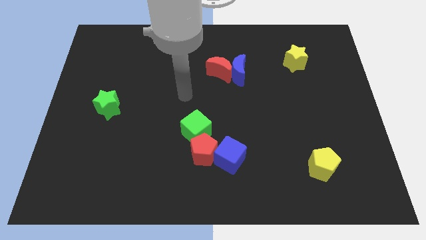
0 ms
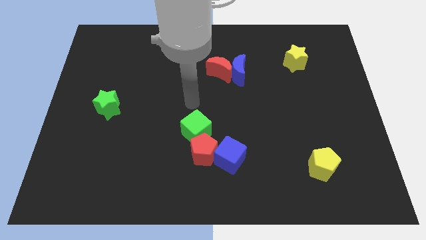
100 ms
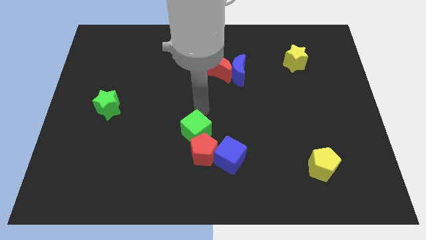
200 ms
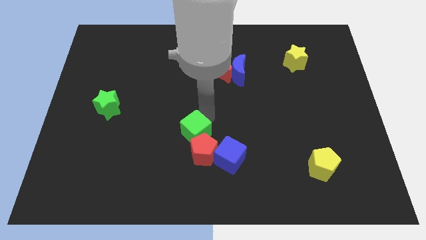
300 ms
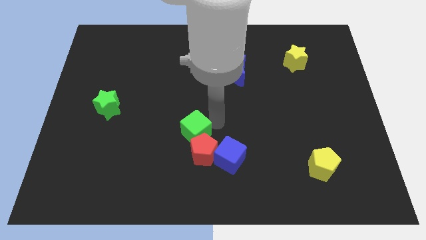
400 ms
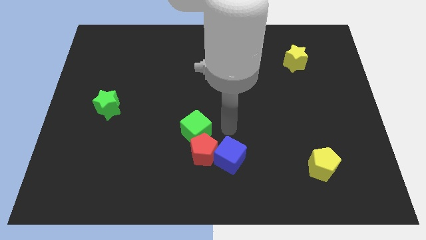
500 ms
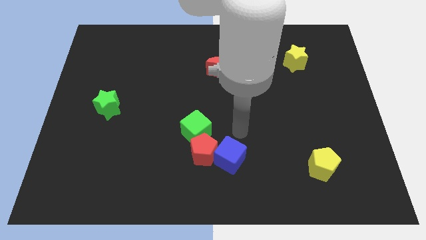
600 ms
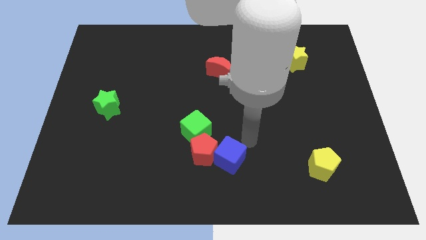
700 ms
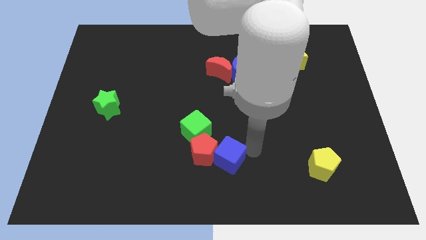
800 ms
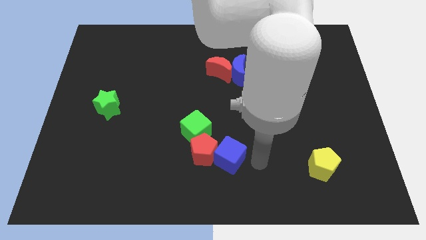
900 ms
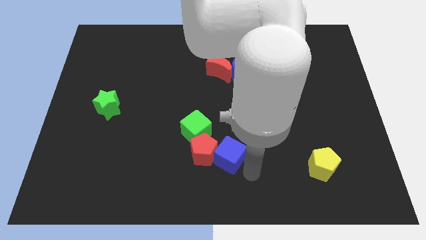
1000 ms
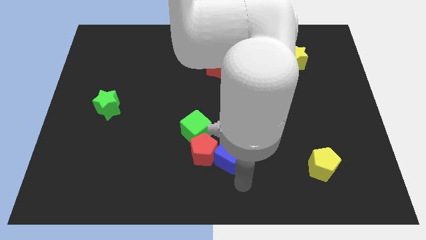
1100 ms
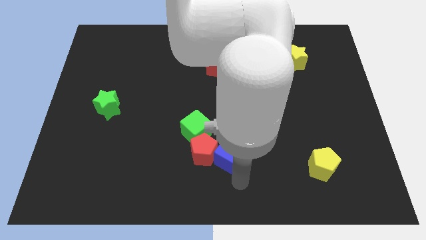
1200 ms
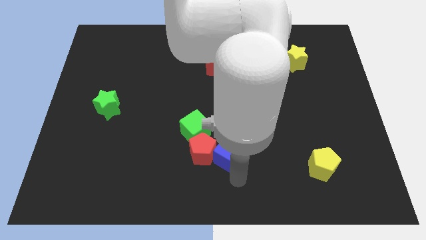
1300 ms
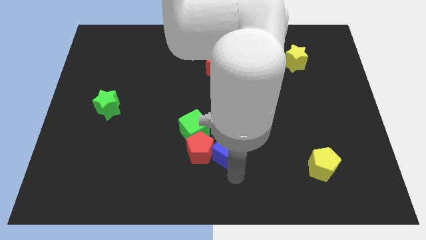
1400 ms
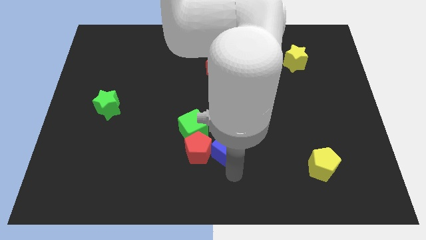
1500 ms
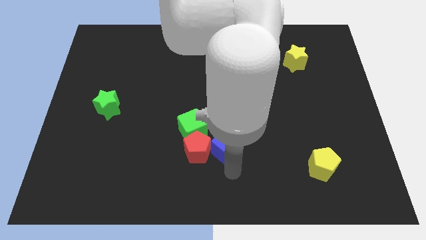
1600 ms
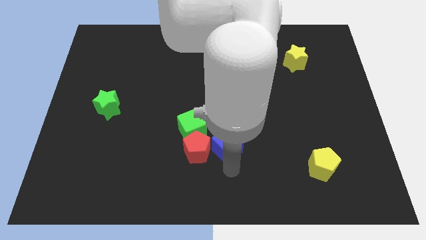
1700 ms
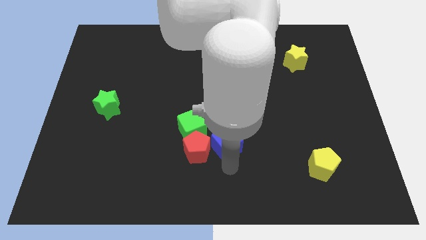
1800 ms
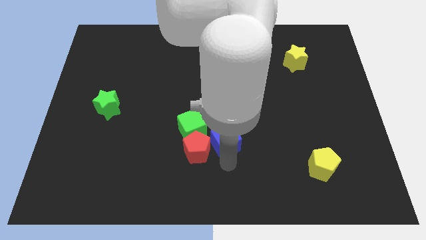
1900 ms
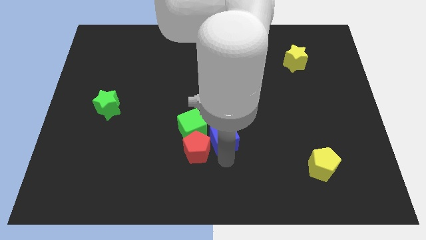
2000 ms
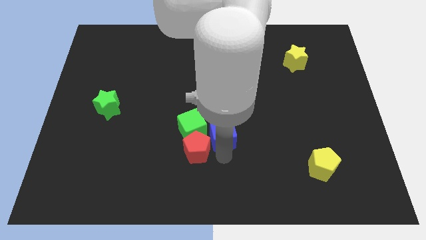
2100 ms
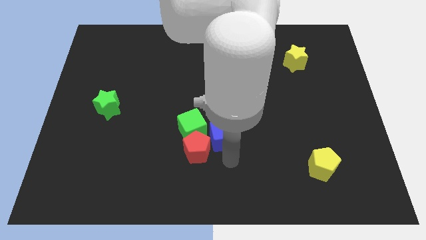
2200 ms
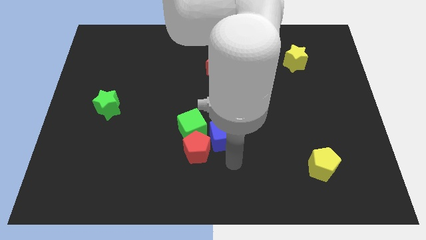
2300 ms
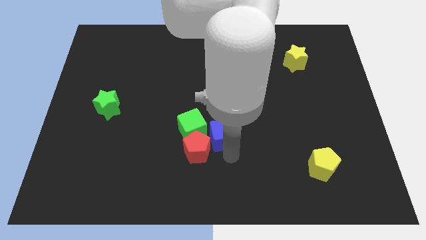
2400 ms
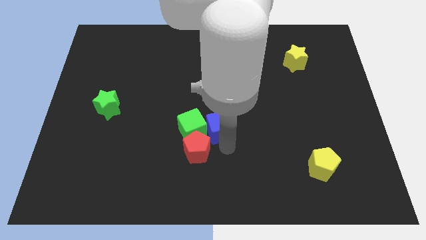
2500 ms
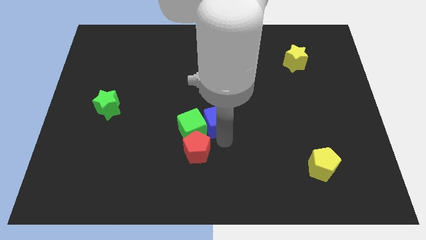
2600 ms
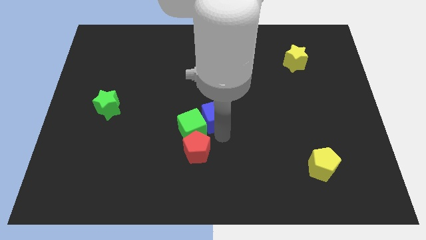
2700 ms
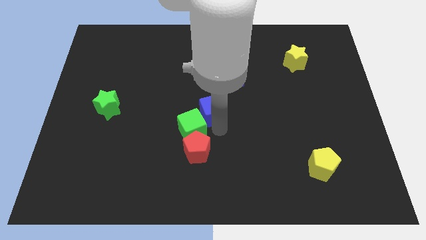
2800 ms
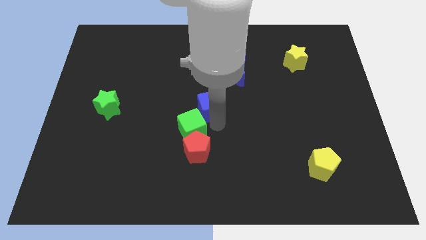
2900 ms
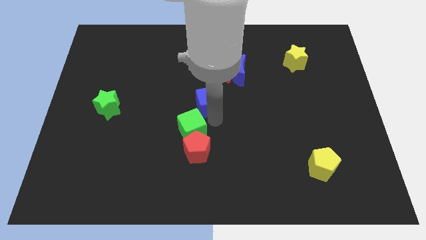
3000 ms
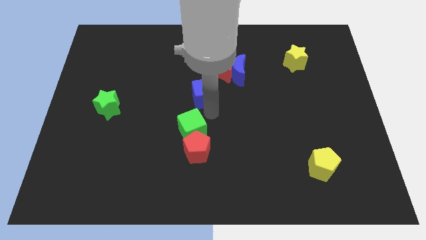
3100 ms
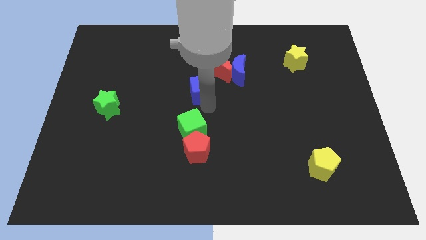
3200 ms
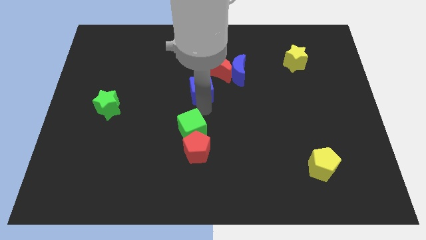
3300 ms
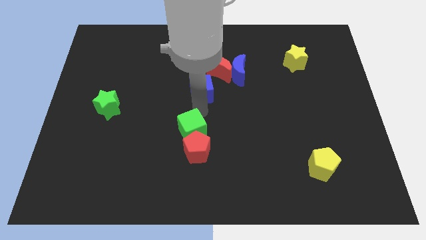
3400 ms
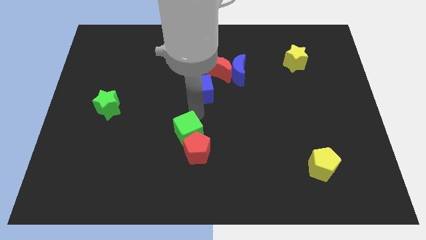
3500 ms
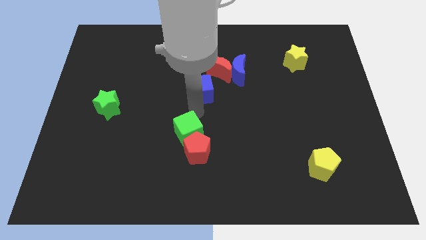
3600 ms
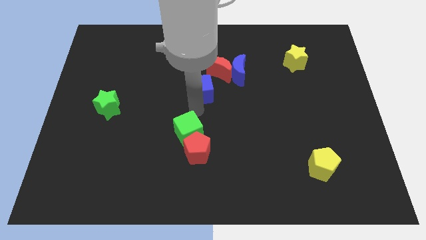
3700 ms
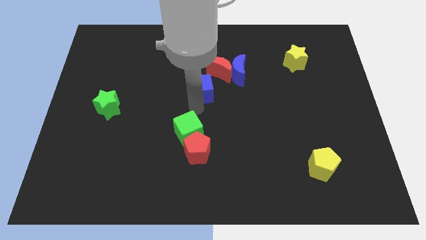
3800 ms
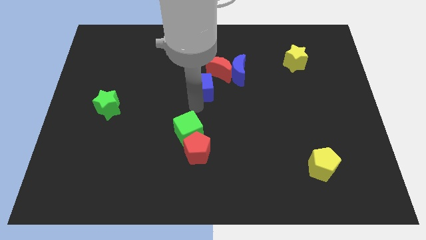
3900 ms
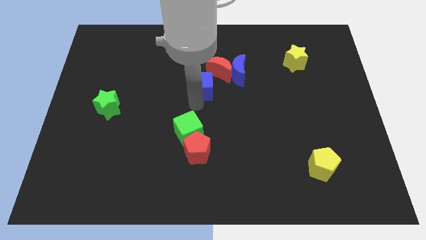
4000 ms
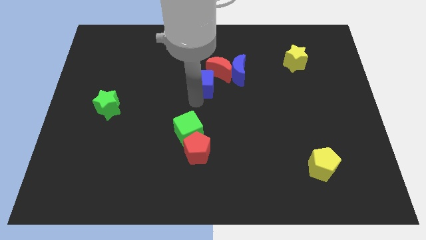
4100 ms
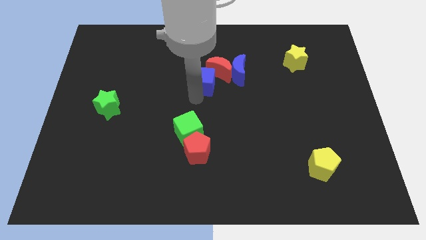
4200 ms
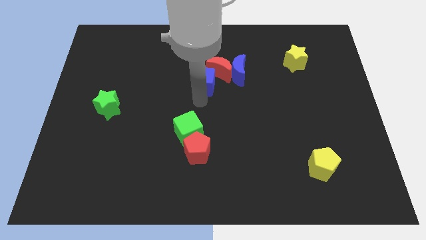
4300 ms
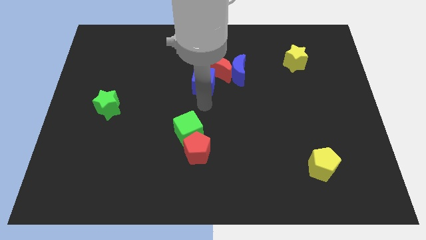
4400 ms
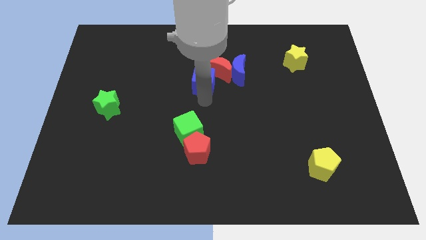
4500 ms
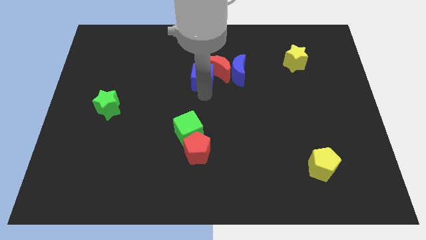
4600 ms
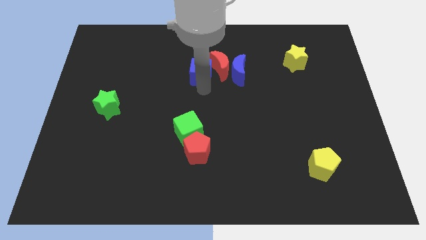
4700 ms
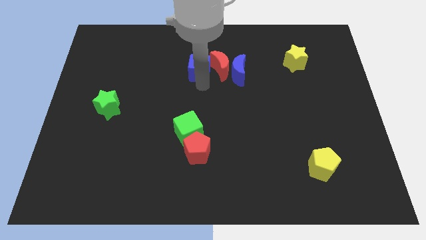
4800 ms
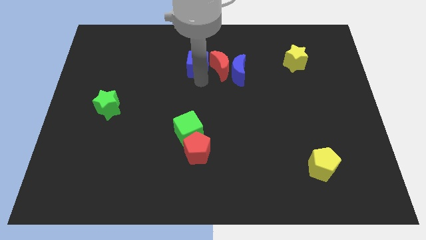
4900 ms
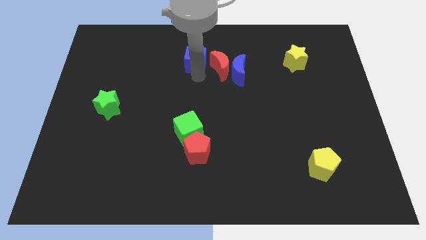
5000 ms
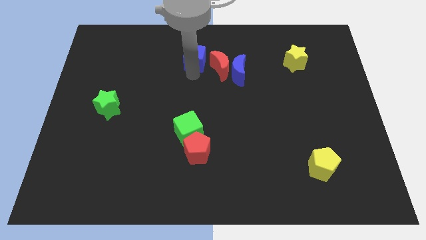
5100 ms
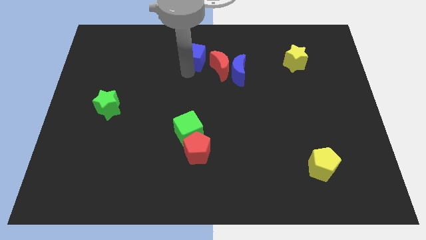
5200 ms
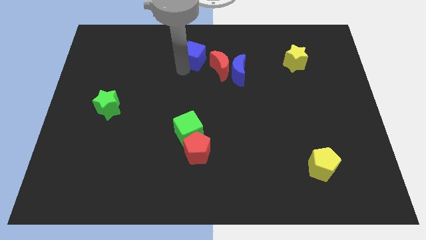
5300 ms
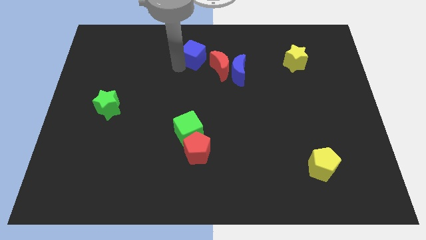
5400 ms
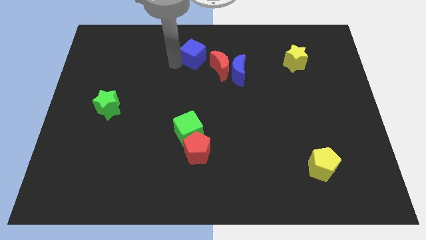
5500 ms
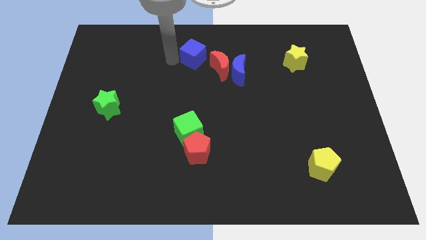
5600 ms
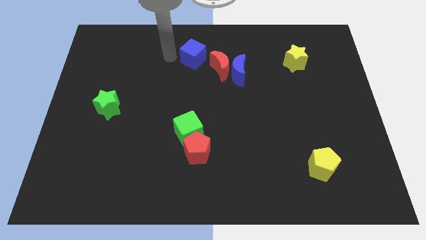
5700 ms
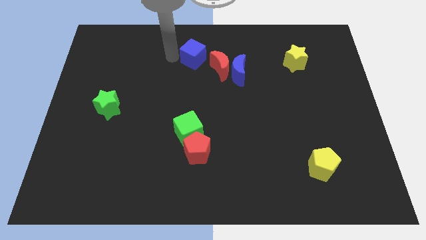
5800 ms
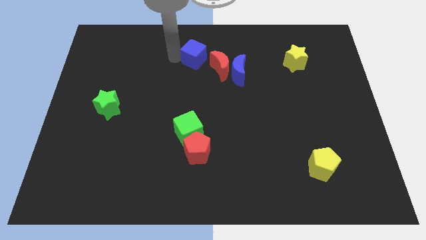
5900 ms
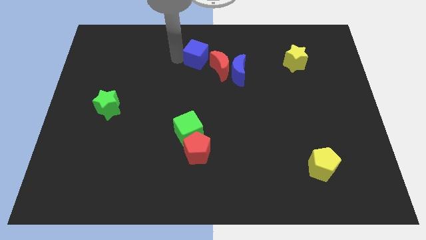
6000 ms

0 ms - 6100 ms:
slide the blue cube to the top left of the blue moon
